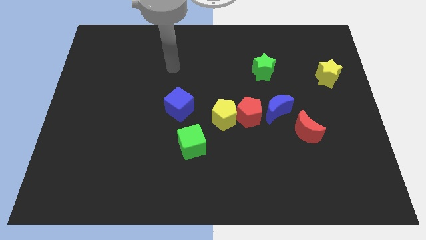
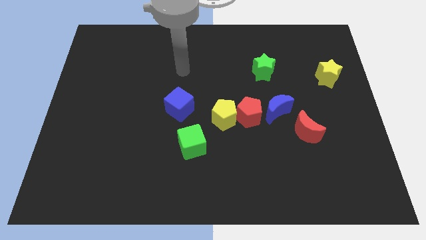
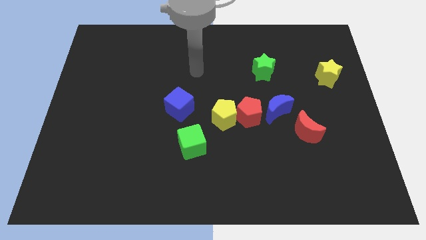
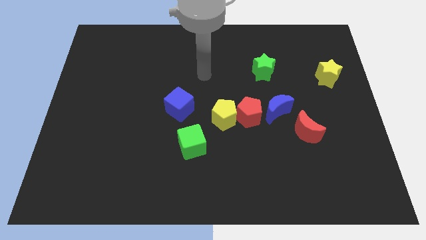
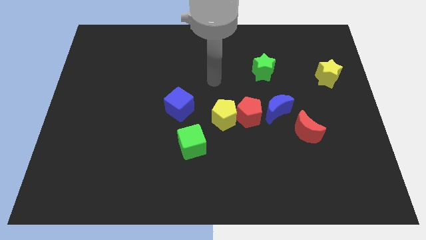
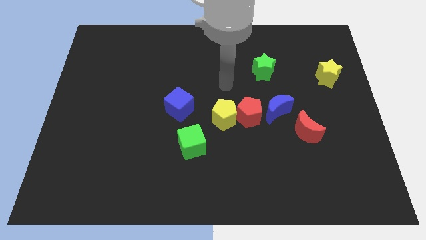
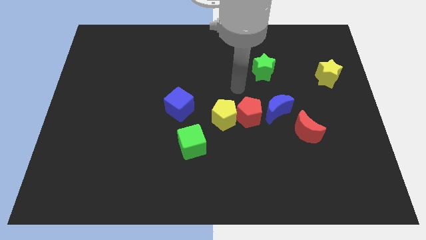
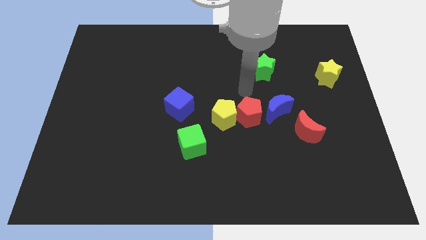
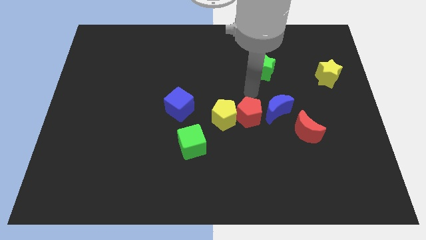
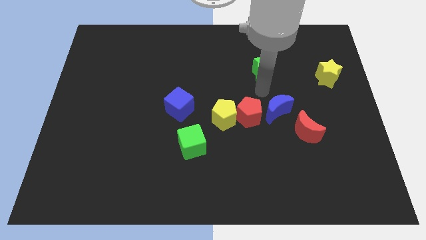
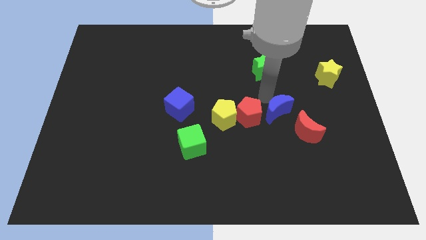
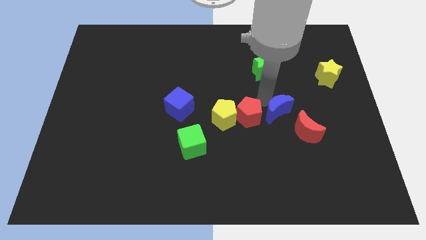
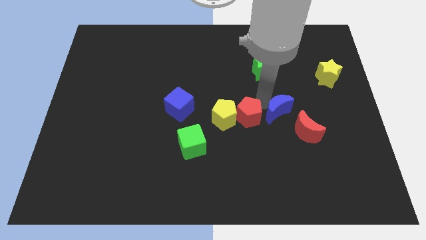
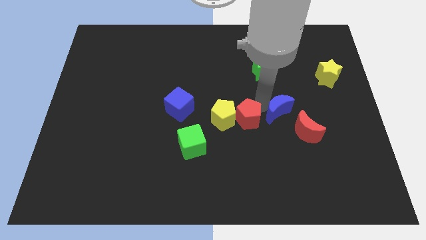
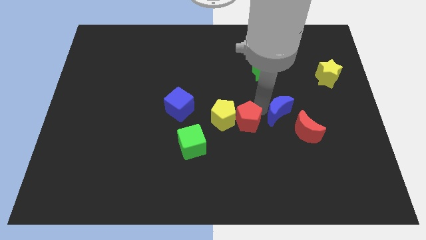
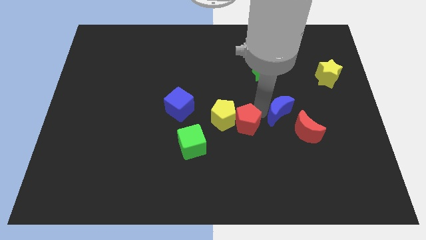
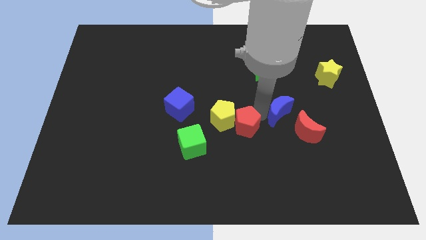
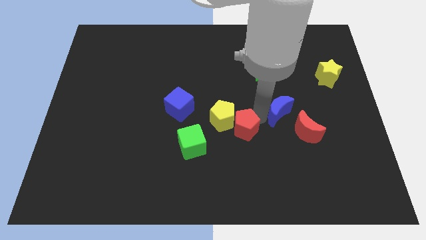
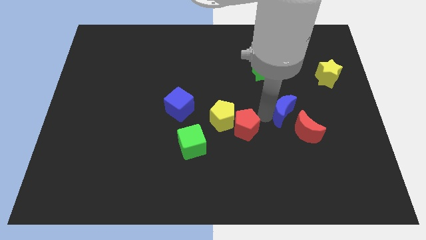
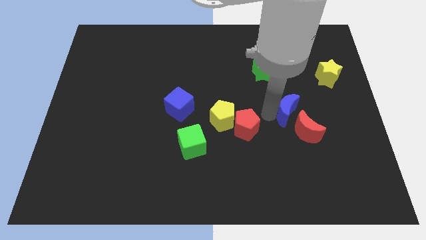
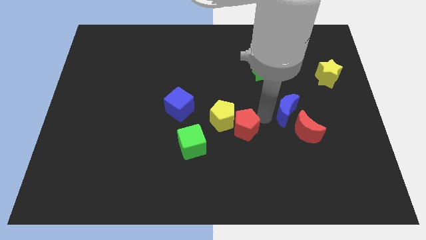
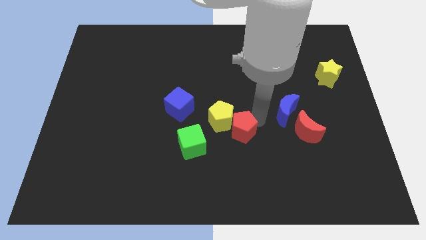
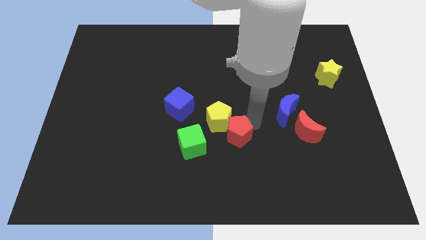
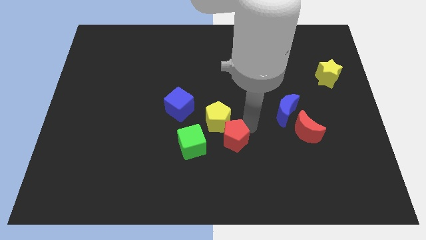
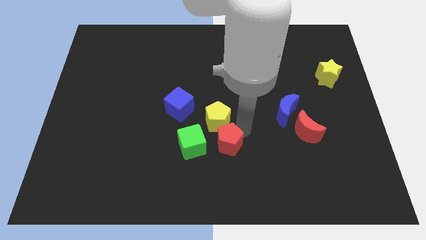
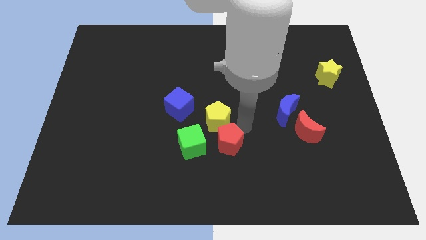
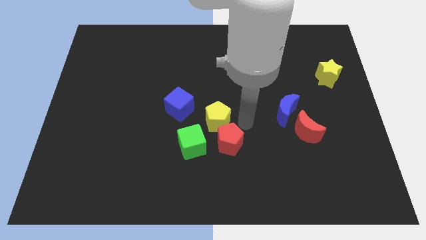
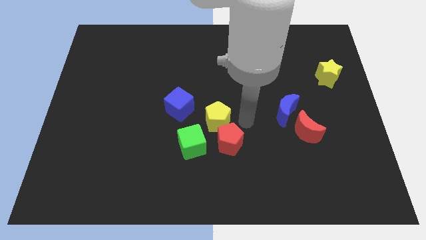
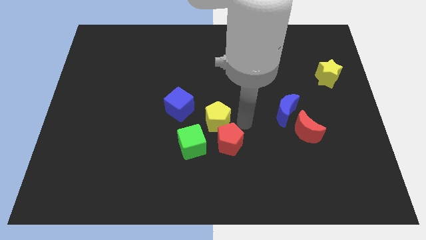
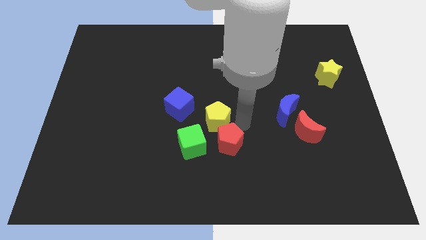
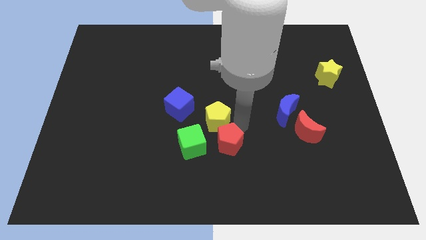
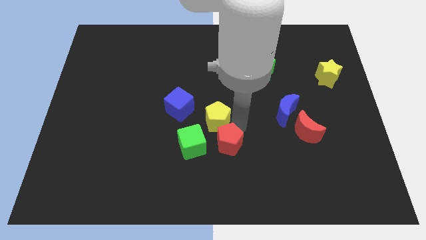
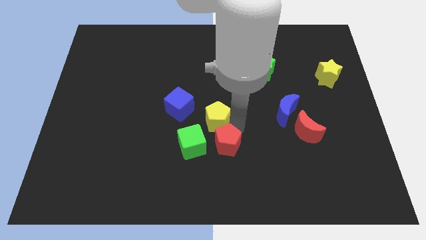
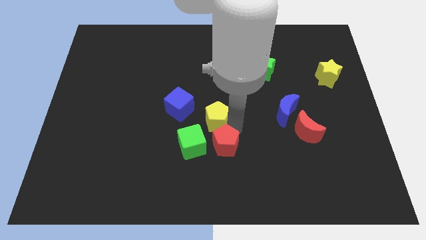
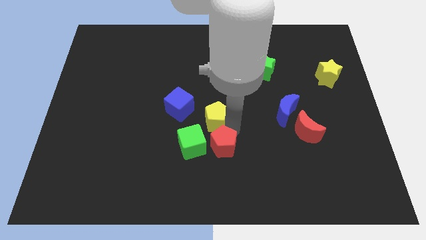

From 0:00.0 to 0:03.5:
separate the red pentagon from the yellow pentagon and blue moon

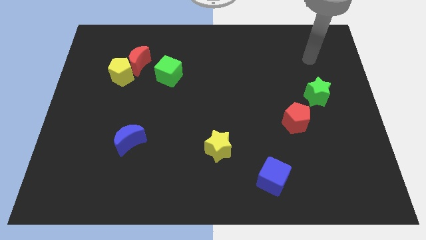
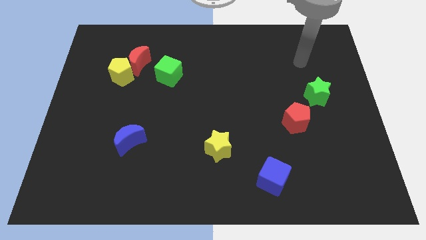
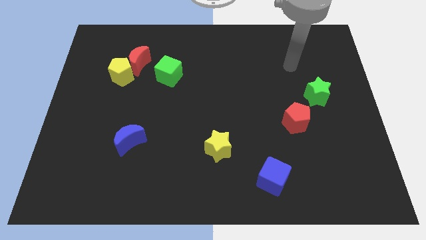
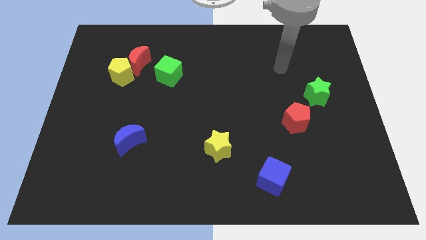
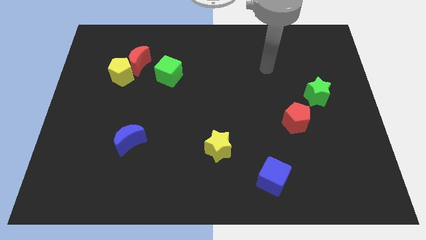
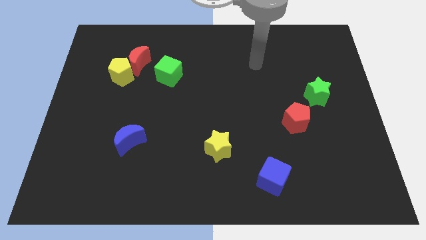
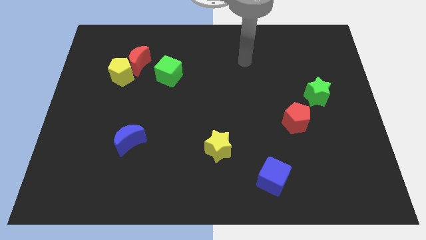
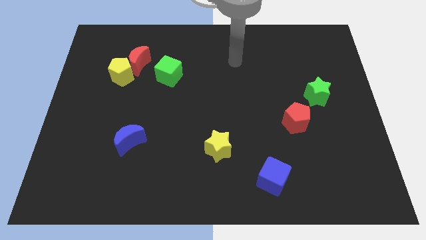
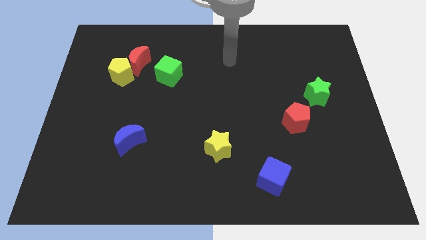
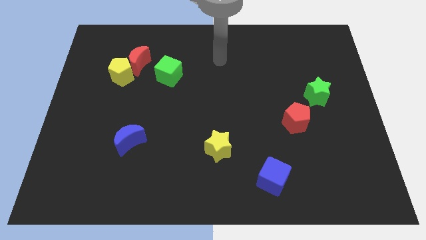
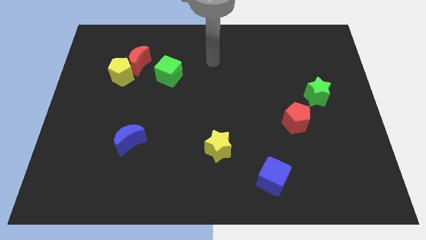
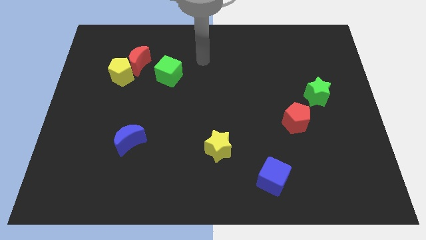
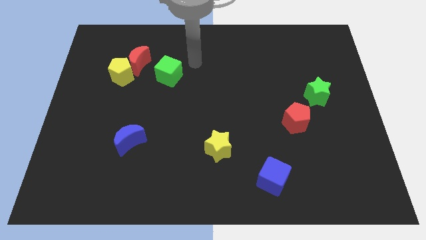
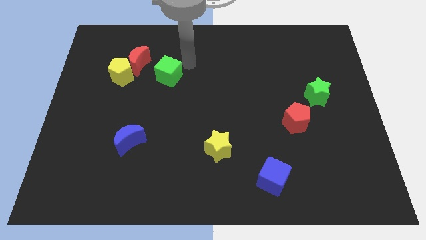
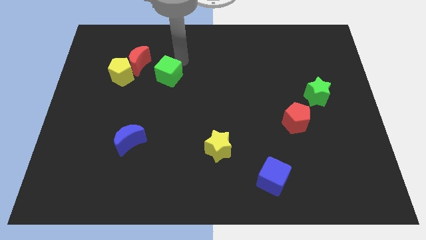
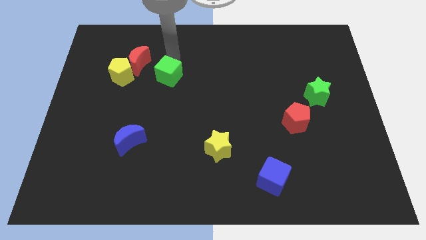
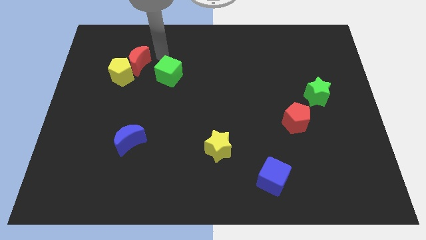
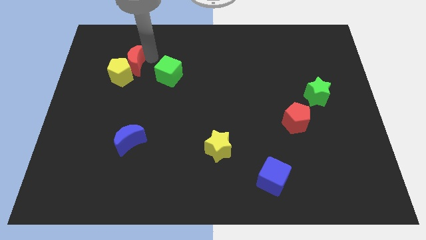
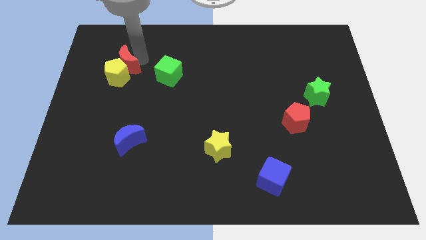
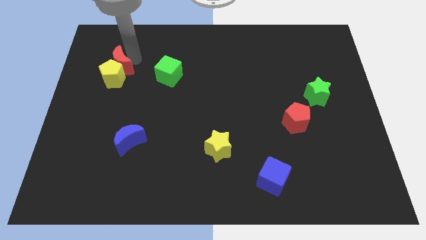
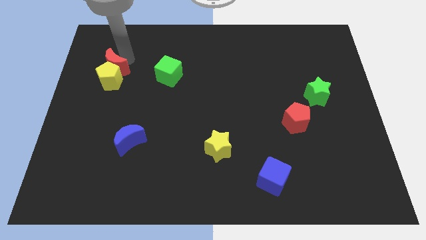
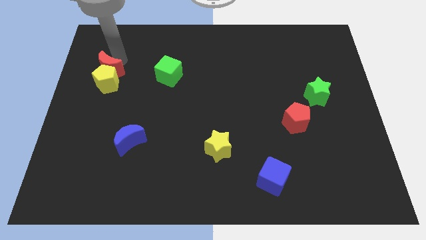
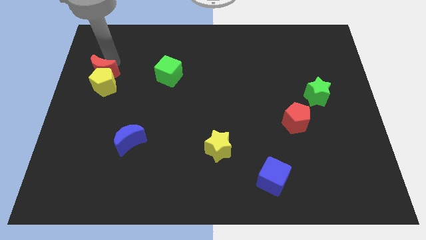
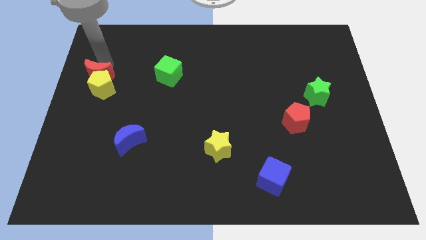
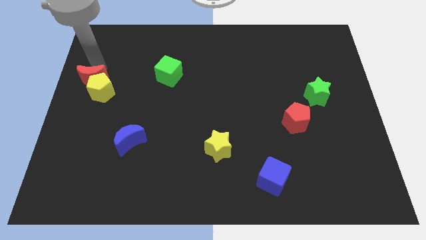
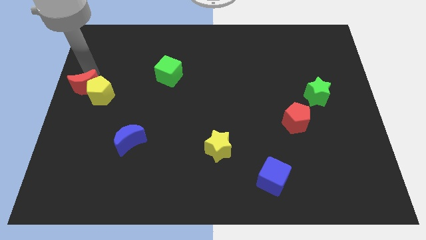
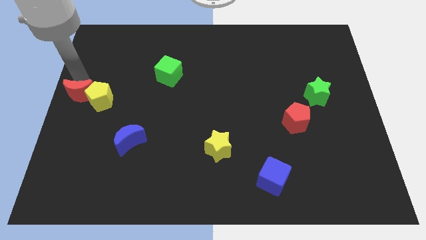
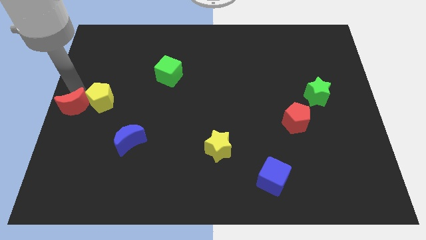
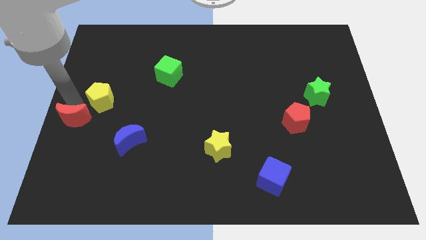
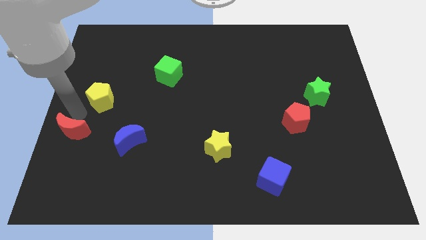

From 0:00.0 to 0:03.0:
move the yellow pentagon away from the red moon

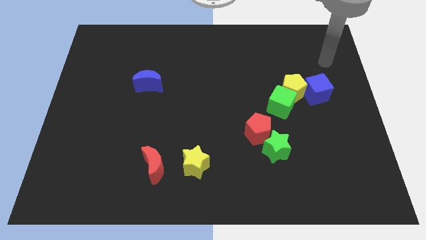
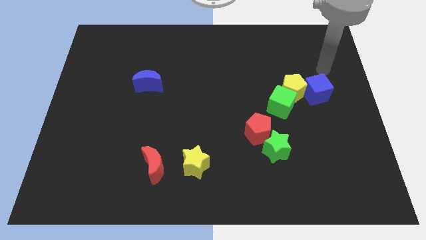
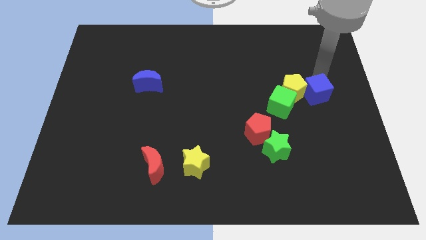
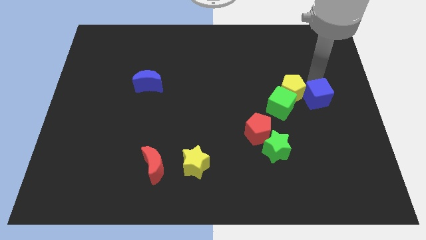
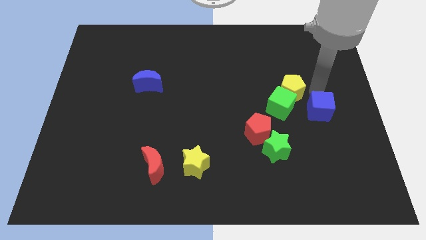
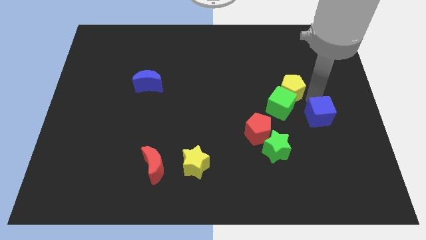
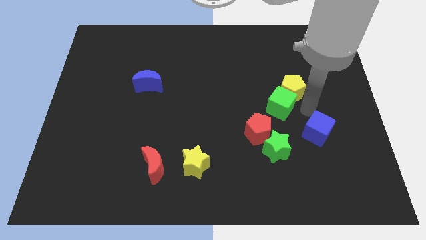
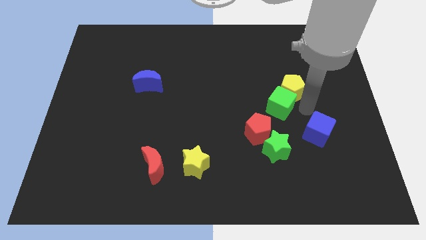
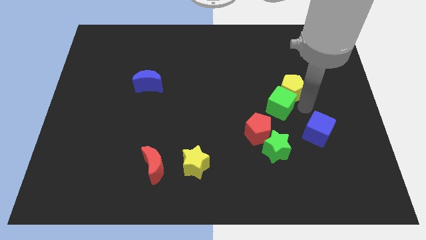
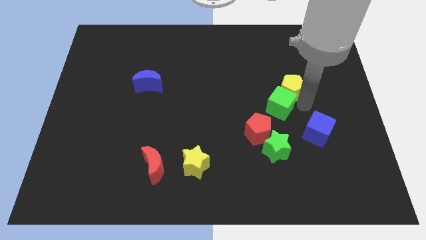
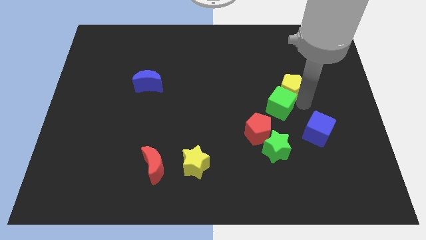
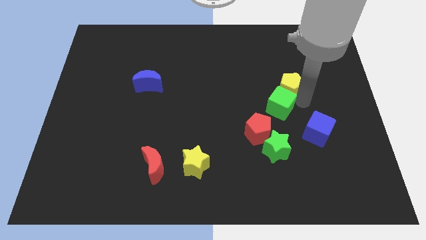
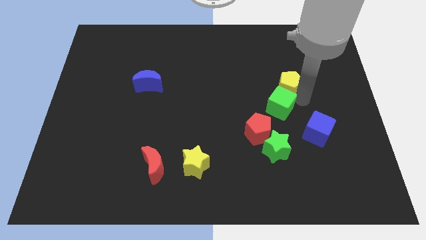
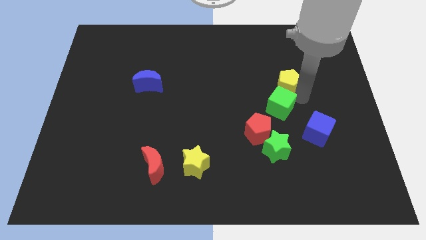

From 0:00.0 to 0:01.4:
move the yellow pentagon away from the green cube and blue cube

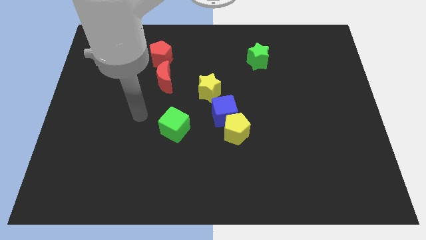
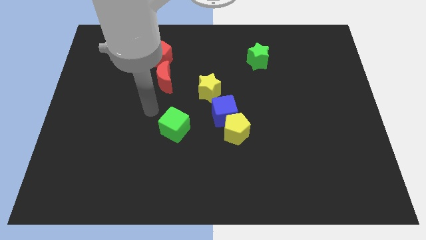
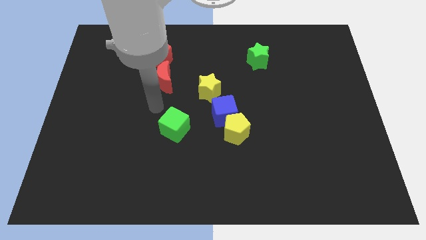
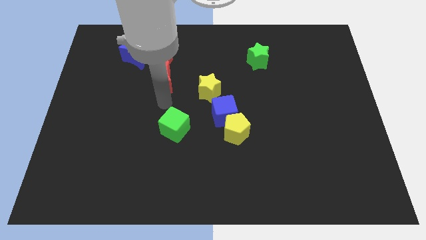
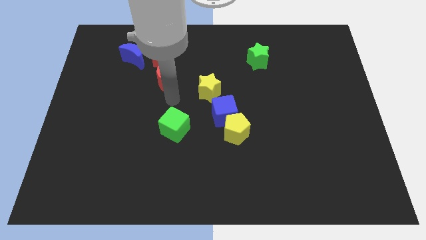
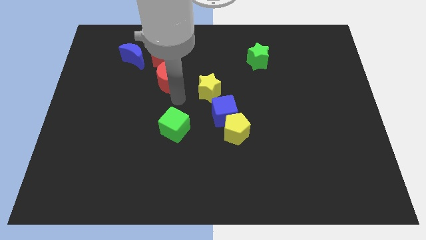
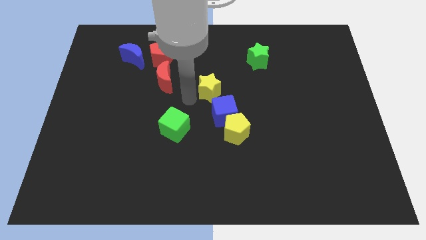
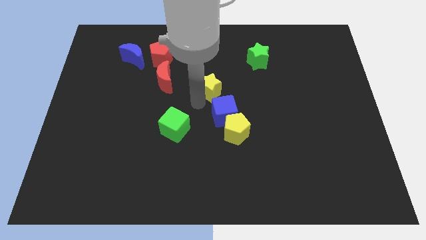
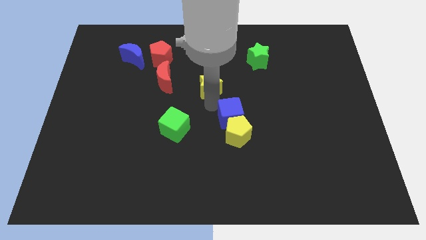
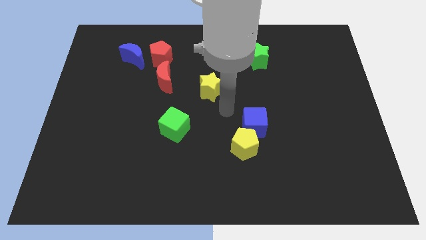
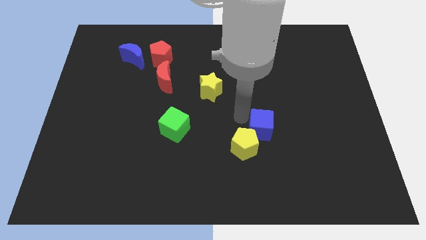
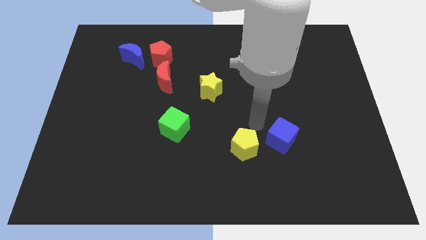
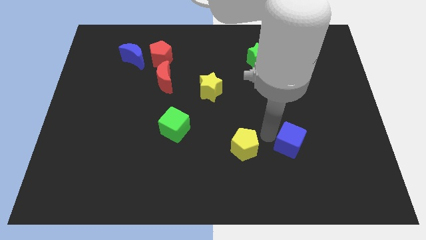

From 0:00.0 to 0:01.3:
move the yellow pentagon away from the blue cube
